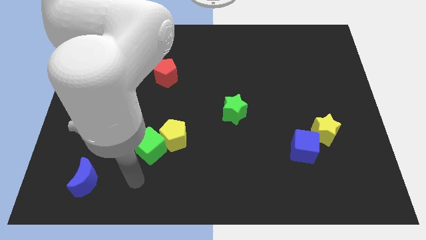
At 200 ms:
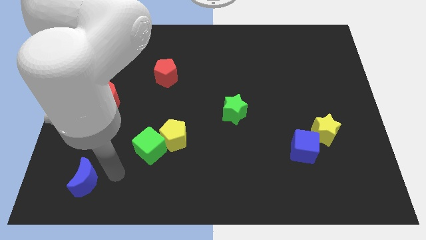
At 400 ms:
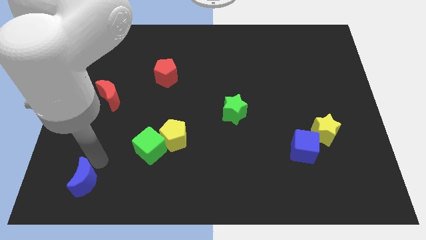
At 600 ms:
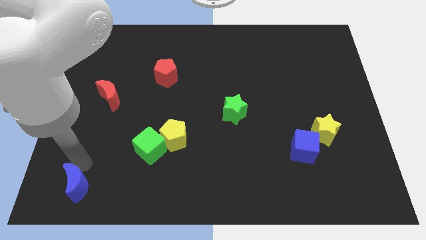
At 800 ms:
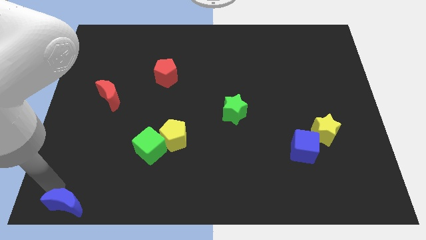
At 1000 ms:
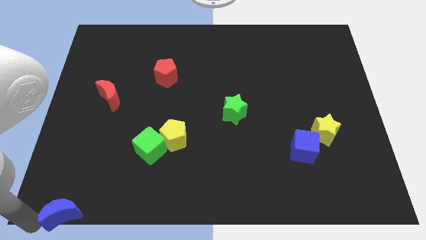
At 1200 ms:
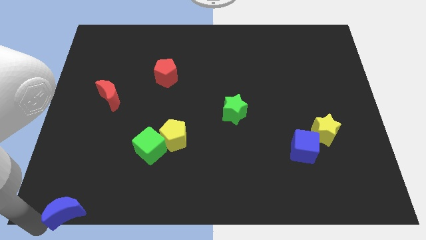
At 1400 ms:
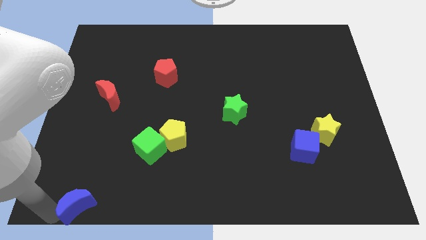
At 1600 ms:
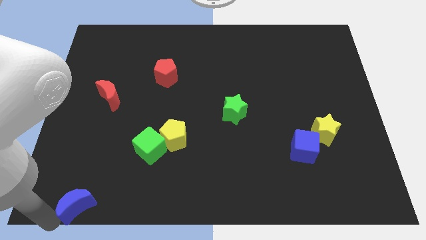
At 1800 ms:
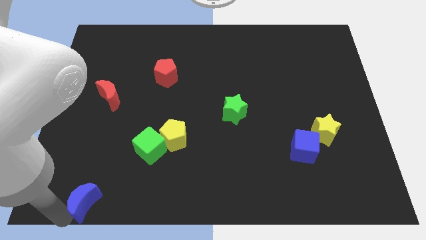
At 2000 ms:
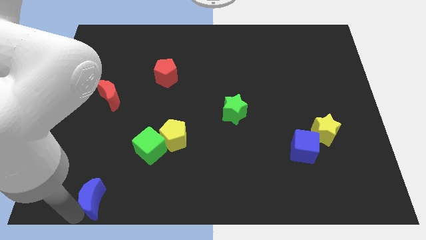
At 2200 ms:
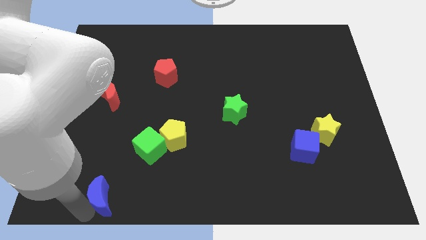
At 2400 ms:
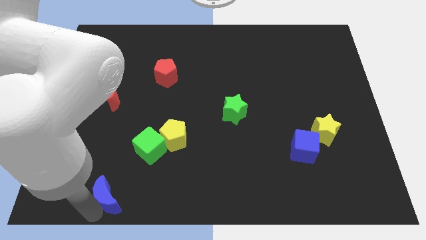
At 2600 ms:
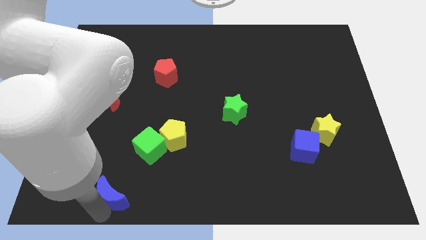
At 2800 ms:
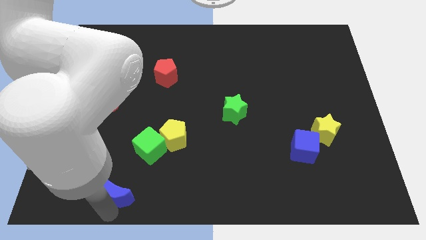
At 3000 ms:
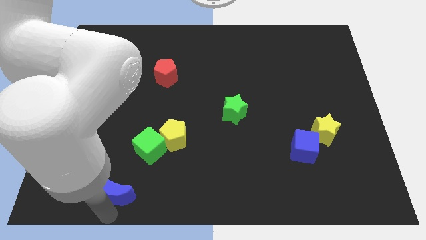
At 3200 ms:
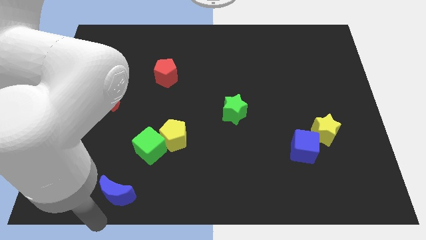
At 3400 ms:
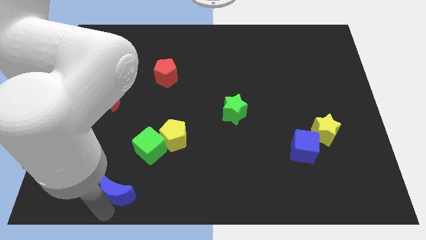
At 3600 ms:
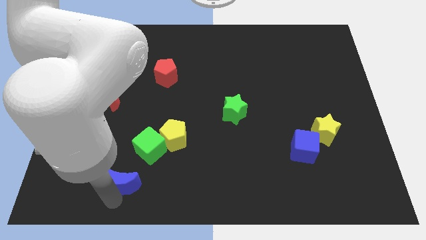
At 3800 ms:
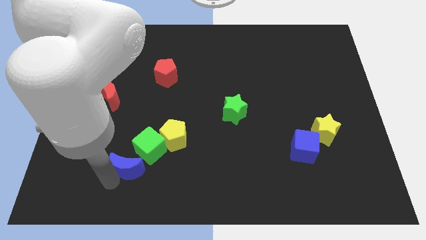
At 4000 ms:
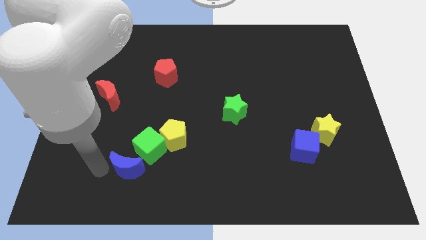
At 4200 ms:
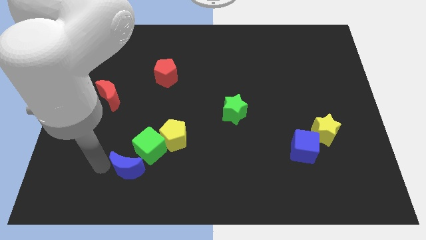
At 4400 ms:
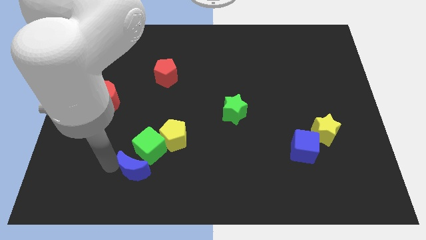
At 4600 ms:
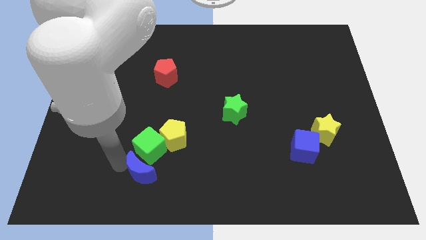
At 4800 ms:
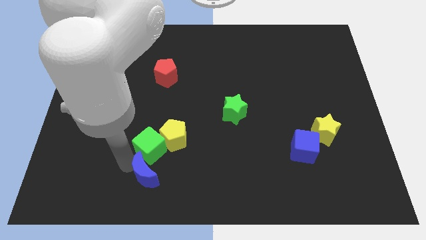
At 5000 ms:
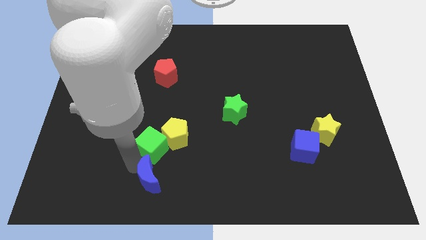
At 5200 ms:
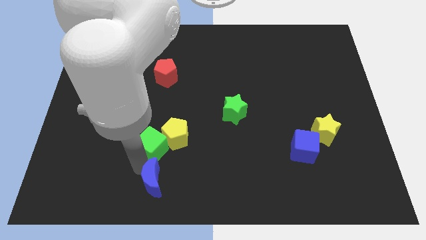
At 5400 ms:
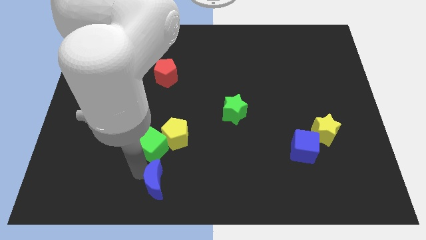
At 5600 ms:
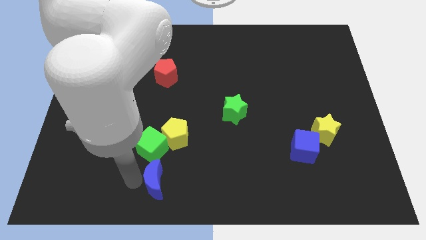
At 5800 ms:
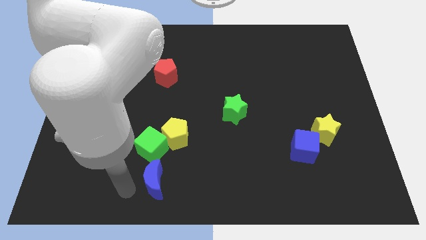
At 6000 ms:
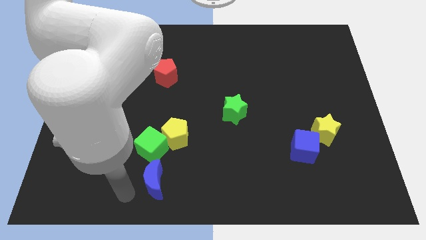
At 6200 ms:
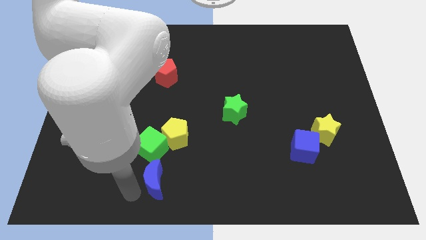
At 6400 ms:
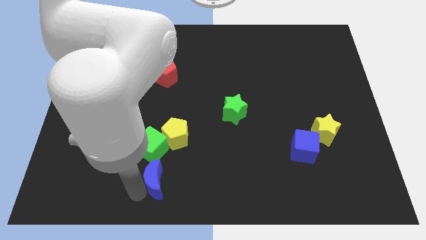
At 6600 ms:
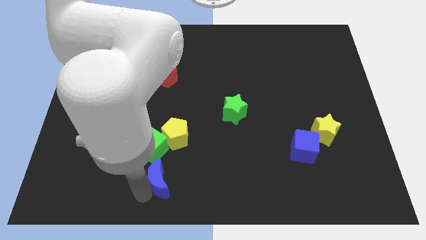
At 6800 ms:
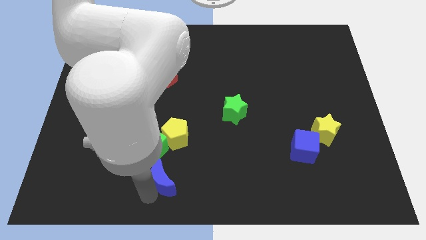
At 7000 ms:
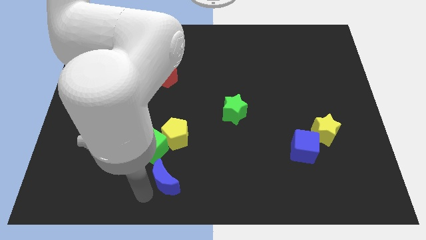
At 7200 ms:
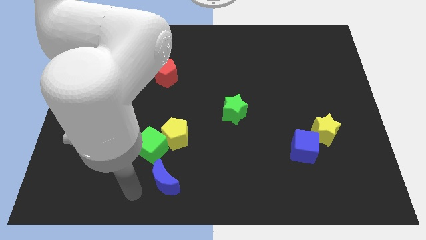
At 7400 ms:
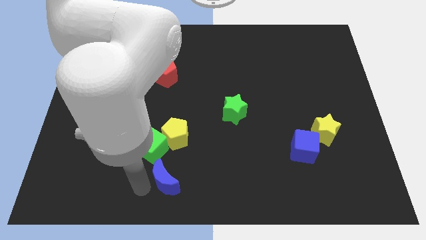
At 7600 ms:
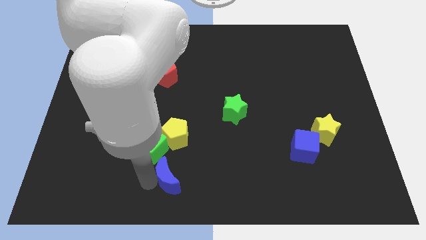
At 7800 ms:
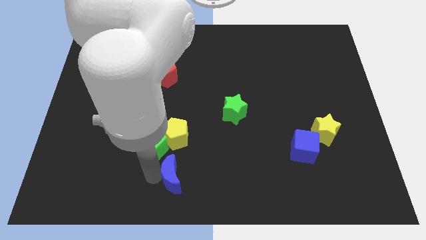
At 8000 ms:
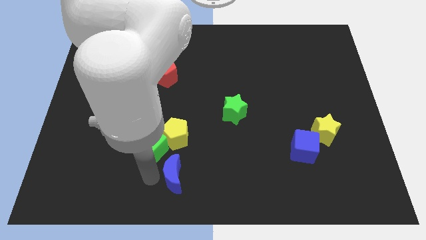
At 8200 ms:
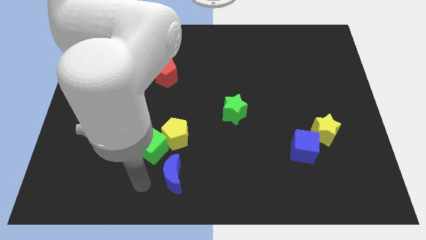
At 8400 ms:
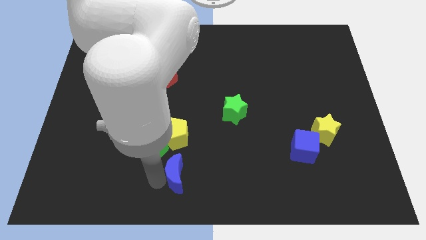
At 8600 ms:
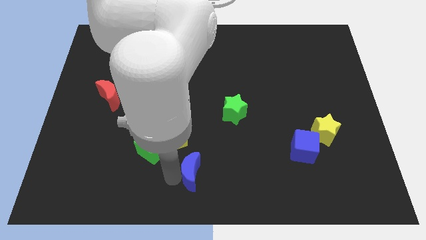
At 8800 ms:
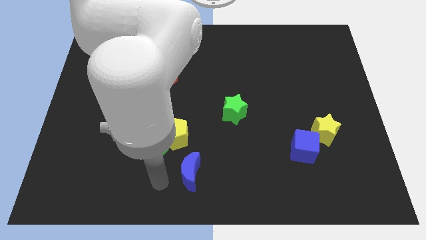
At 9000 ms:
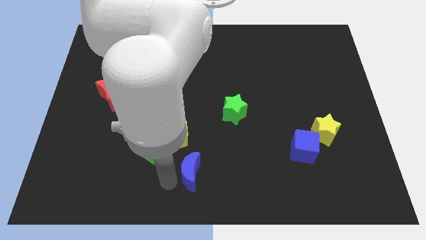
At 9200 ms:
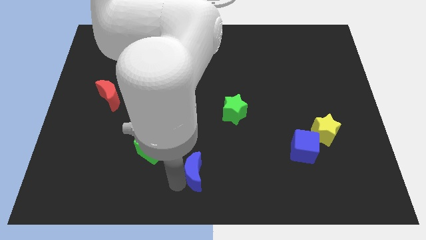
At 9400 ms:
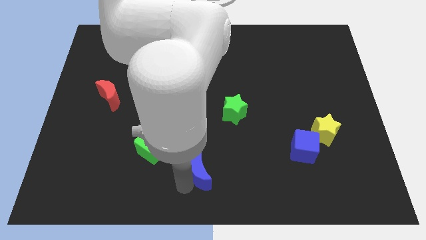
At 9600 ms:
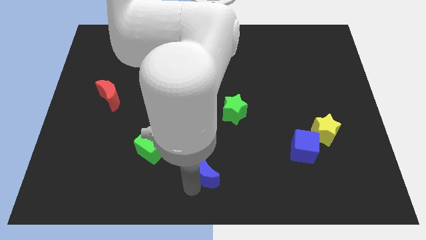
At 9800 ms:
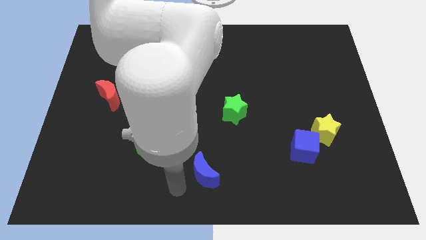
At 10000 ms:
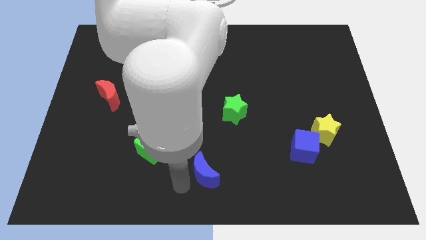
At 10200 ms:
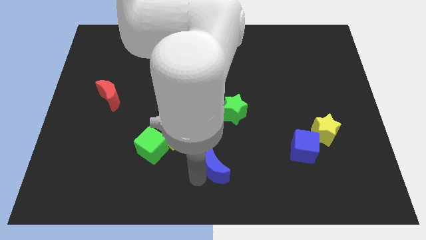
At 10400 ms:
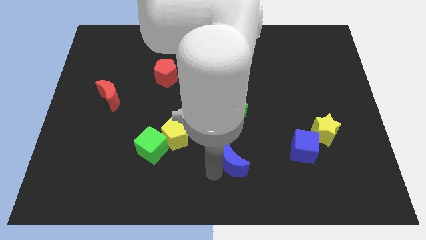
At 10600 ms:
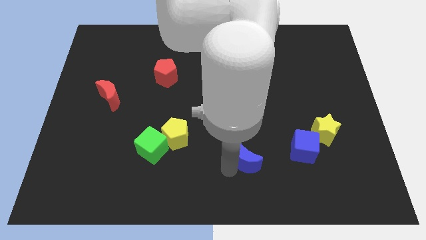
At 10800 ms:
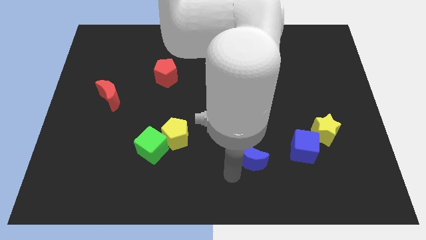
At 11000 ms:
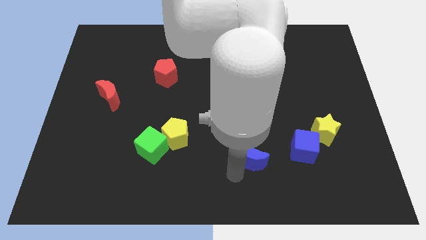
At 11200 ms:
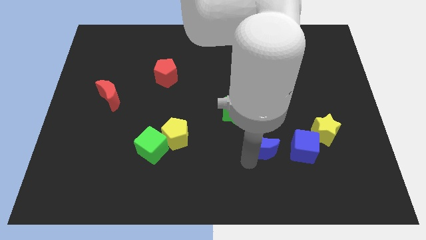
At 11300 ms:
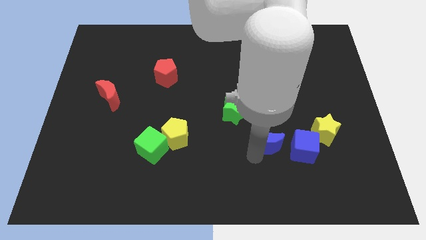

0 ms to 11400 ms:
move the blue moon just left of the yellow star

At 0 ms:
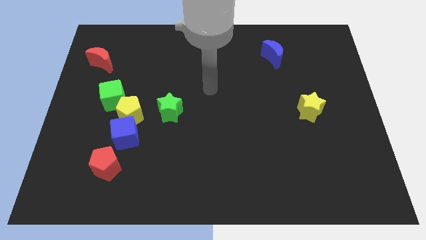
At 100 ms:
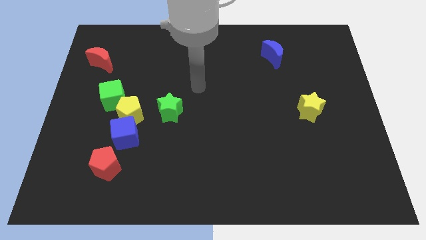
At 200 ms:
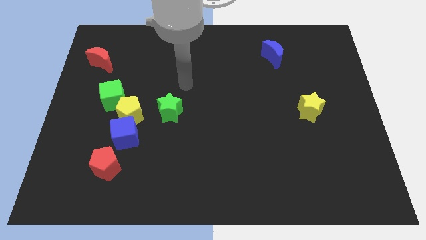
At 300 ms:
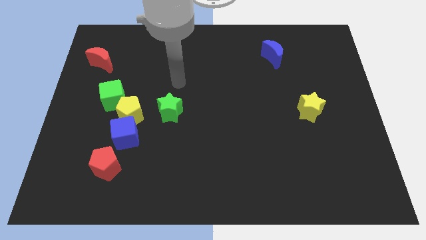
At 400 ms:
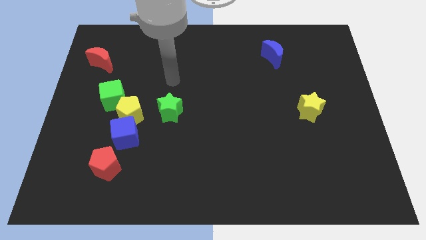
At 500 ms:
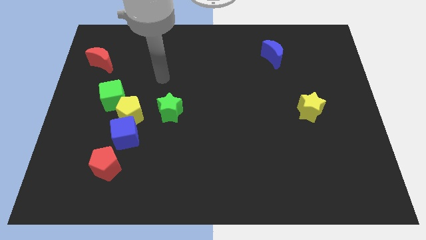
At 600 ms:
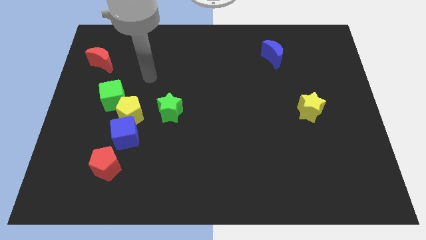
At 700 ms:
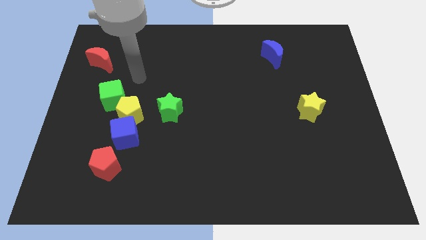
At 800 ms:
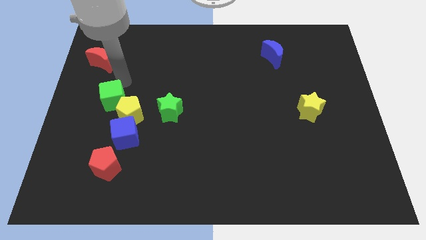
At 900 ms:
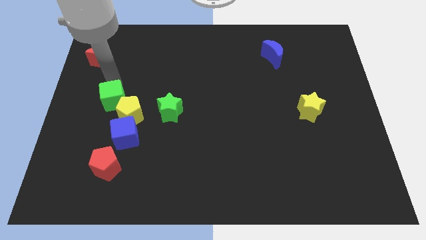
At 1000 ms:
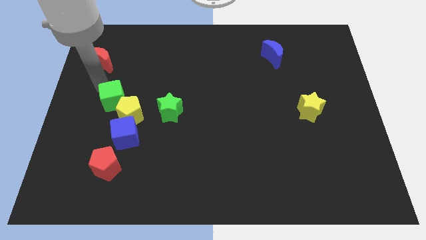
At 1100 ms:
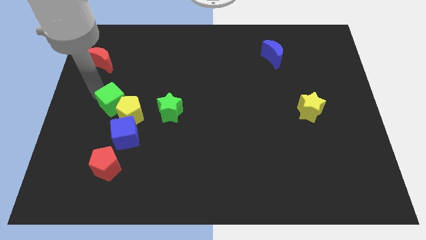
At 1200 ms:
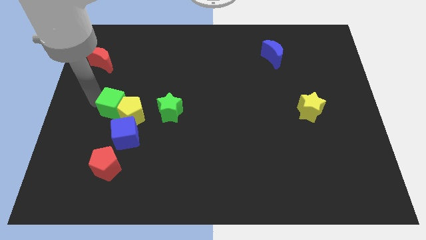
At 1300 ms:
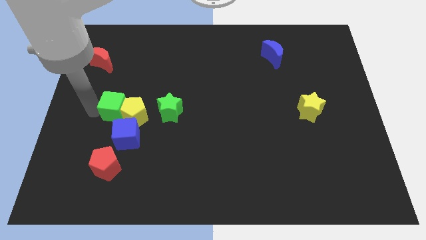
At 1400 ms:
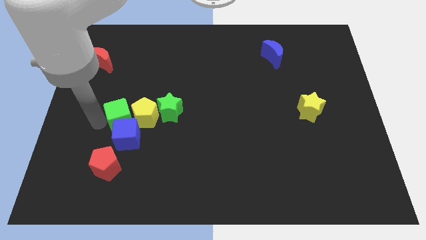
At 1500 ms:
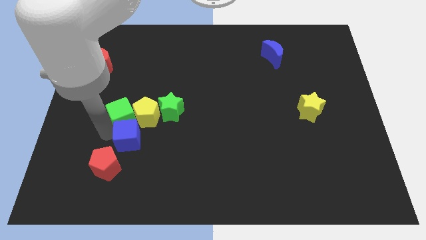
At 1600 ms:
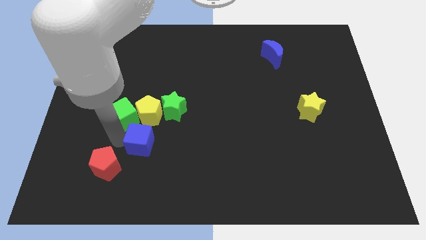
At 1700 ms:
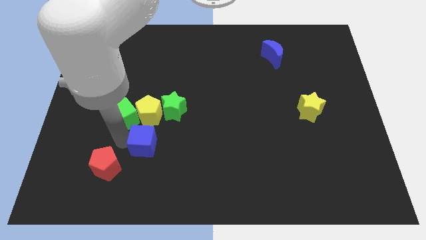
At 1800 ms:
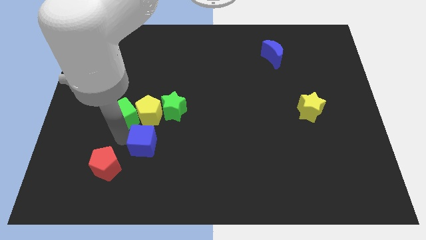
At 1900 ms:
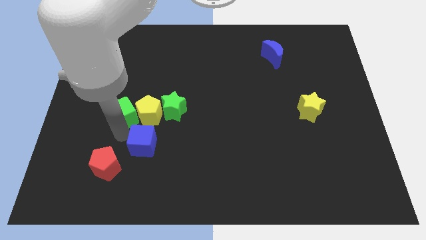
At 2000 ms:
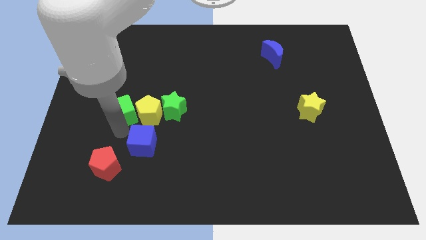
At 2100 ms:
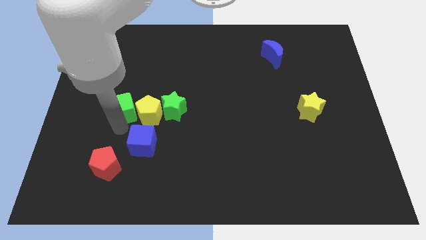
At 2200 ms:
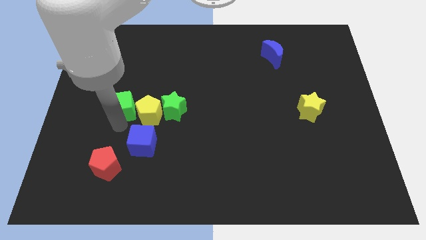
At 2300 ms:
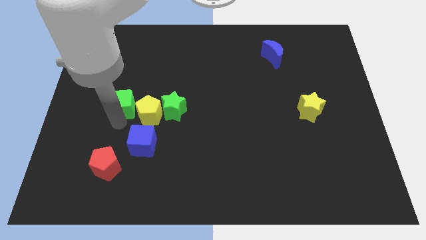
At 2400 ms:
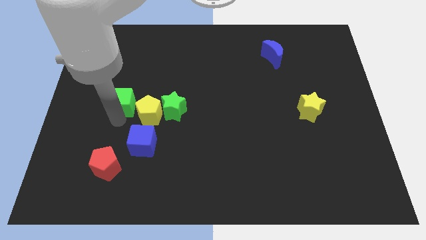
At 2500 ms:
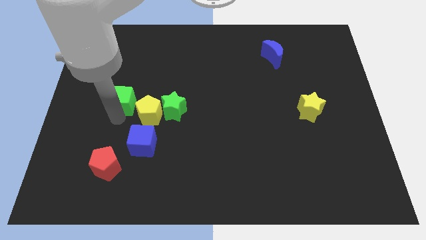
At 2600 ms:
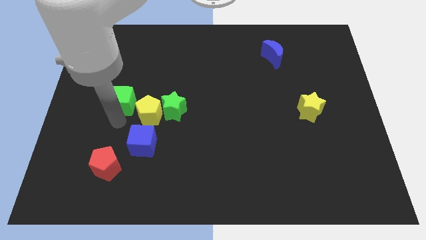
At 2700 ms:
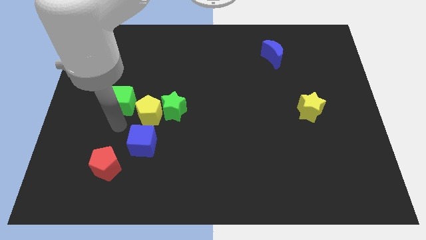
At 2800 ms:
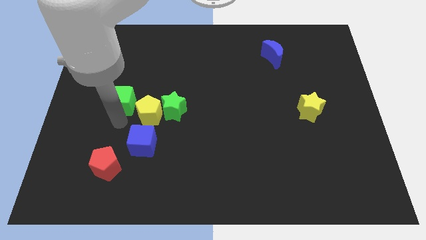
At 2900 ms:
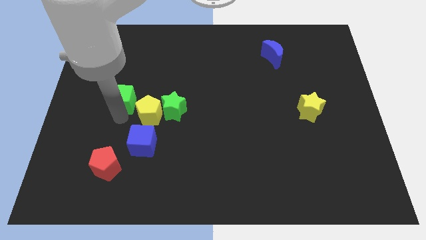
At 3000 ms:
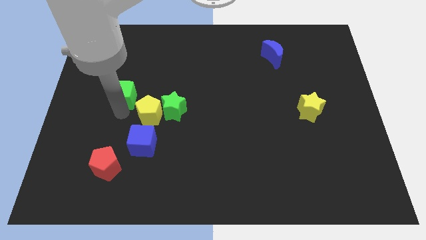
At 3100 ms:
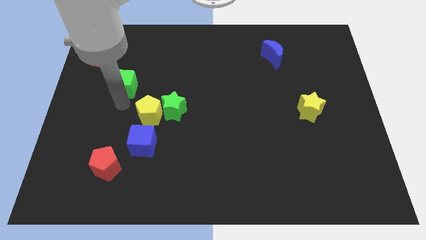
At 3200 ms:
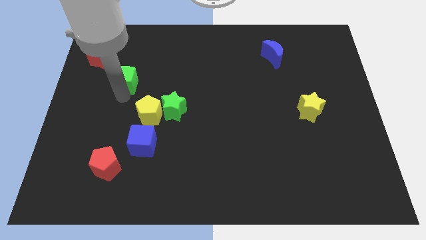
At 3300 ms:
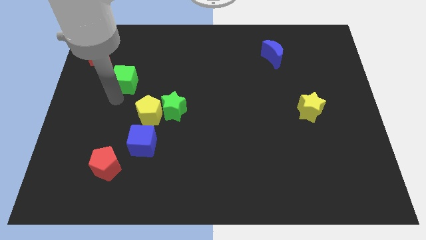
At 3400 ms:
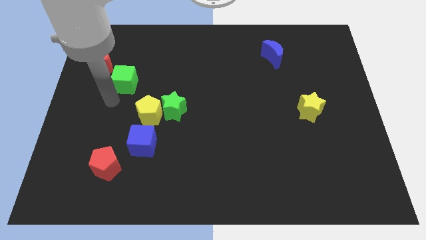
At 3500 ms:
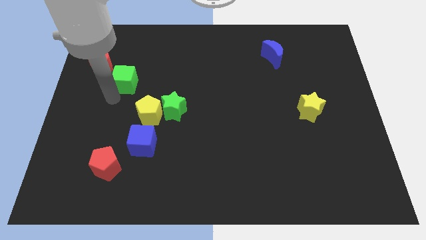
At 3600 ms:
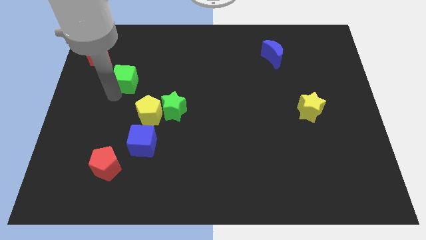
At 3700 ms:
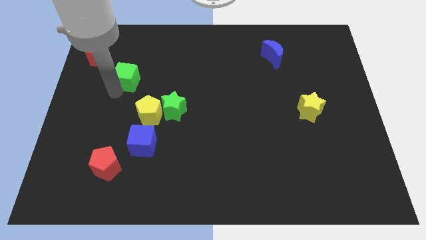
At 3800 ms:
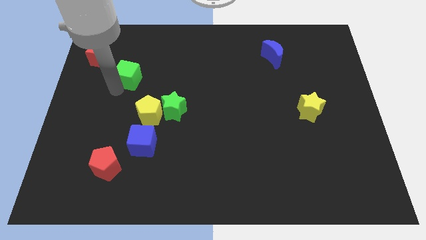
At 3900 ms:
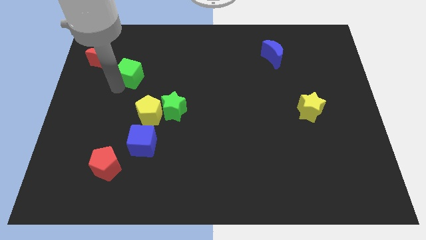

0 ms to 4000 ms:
push the green cube right of the red moon
